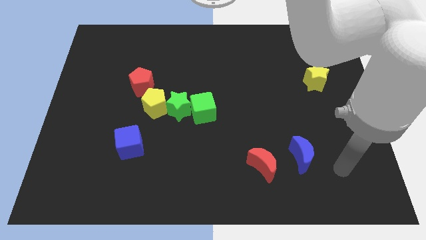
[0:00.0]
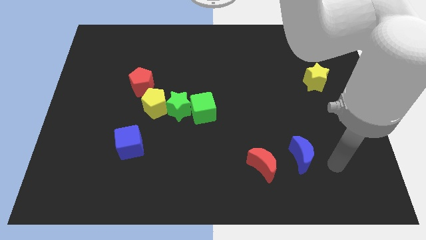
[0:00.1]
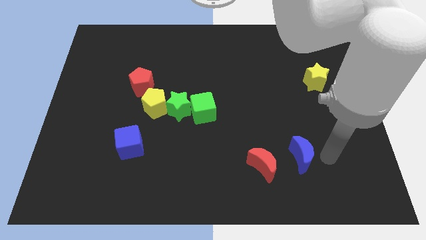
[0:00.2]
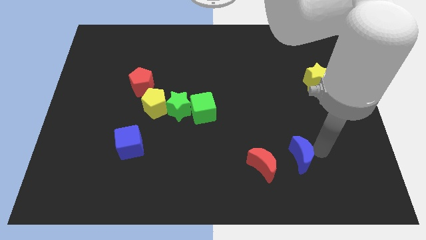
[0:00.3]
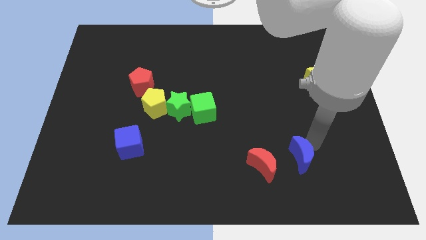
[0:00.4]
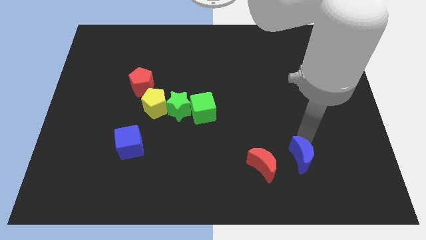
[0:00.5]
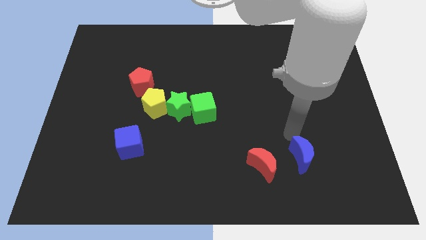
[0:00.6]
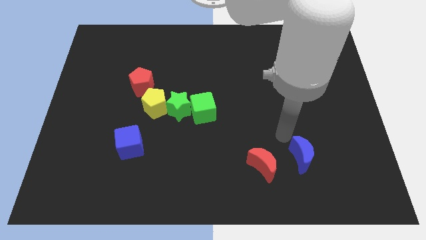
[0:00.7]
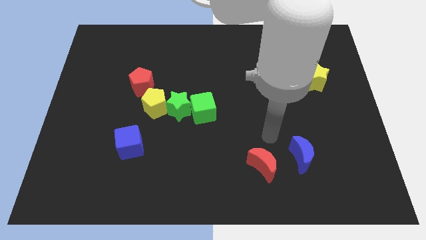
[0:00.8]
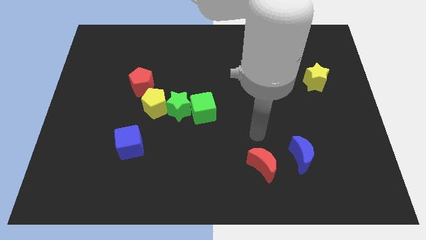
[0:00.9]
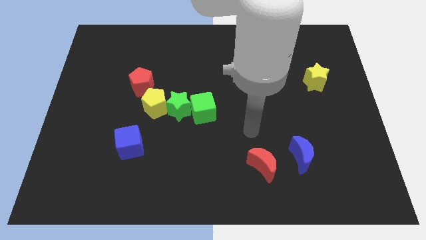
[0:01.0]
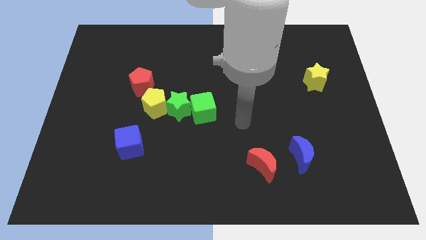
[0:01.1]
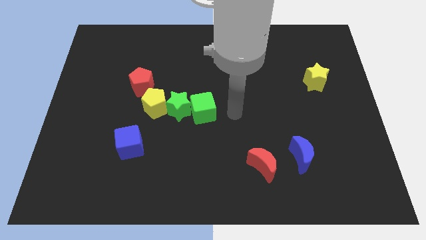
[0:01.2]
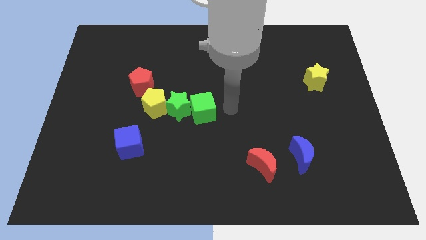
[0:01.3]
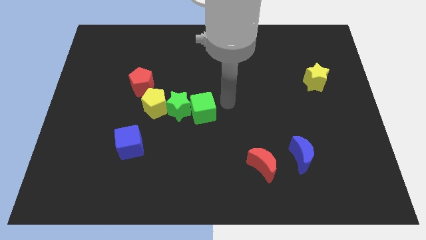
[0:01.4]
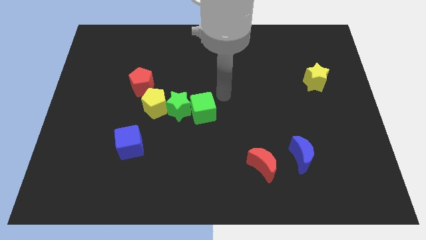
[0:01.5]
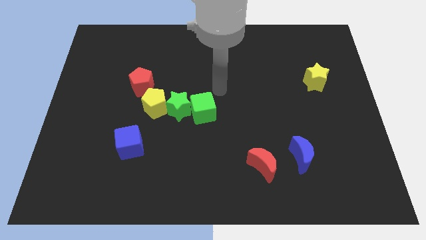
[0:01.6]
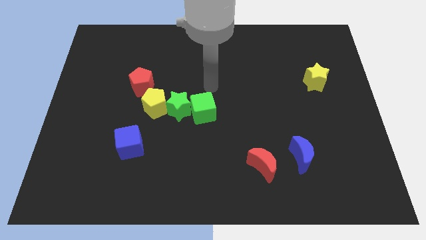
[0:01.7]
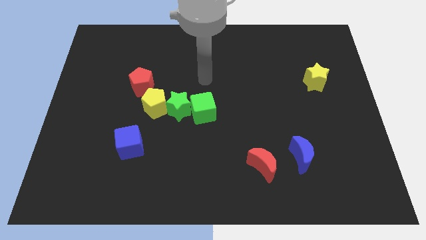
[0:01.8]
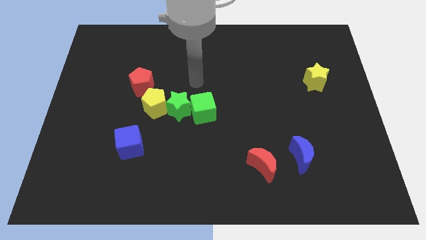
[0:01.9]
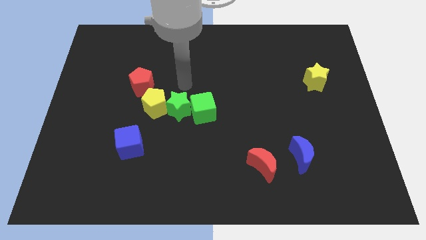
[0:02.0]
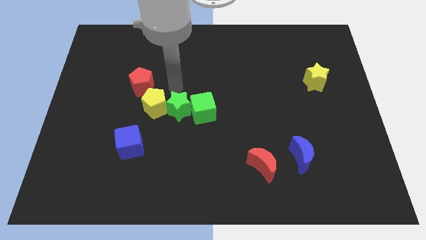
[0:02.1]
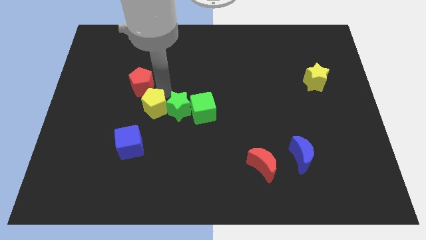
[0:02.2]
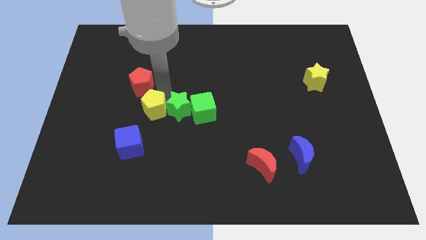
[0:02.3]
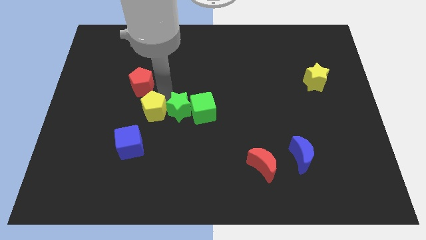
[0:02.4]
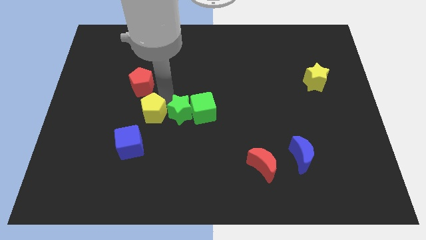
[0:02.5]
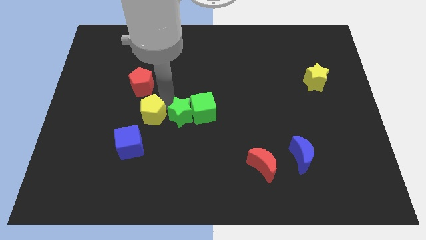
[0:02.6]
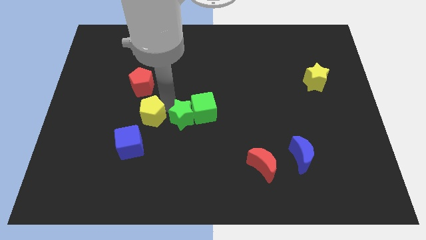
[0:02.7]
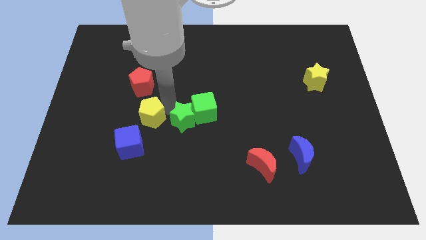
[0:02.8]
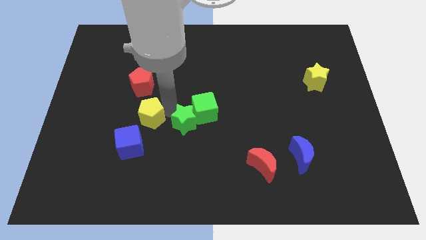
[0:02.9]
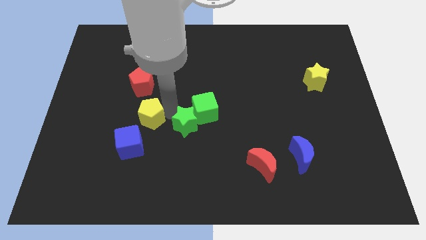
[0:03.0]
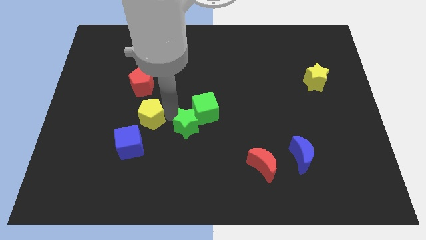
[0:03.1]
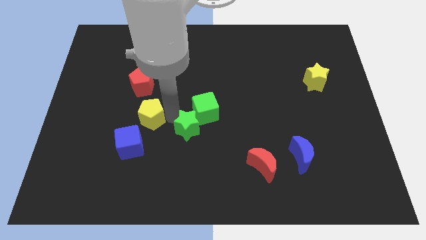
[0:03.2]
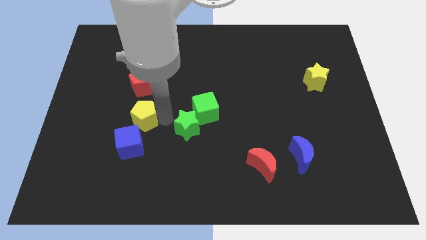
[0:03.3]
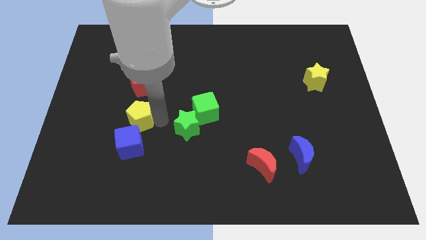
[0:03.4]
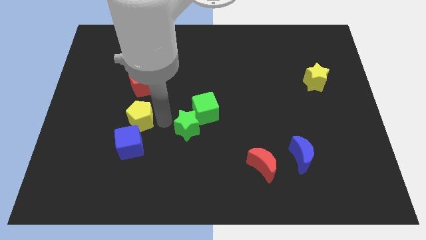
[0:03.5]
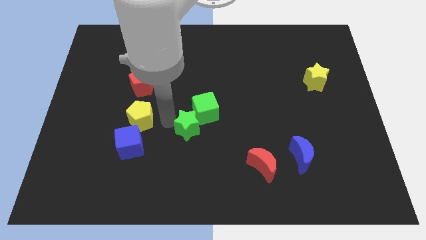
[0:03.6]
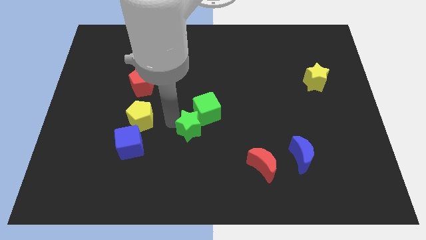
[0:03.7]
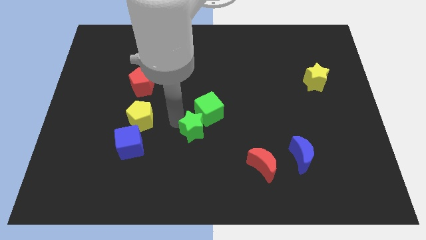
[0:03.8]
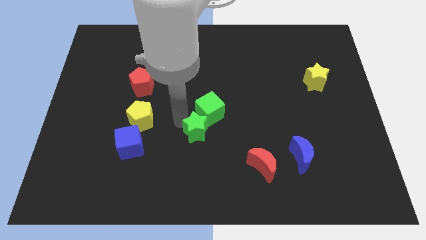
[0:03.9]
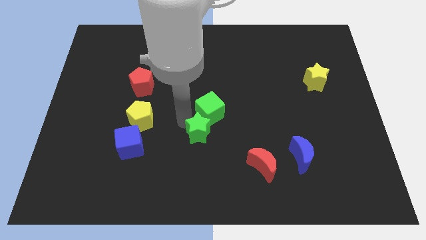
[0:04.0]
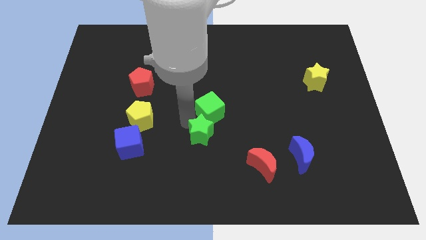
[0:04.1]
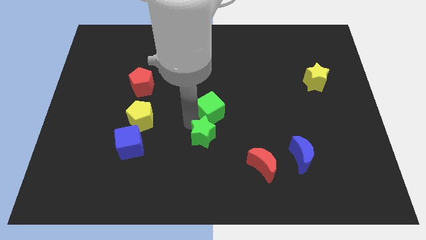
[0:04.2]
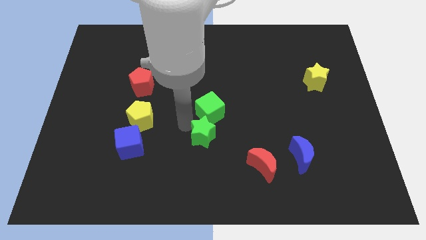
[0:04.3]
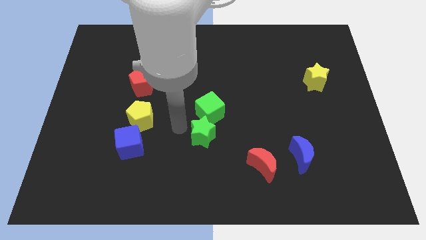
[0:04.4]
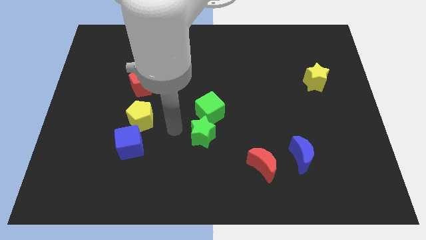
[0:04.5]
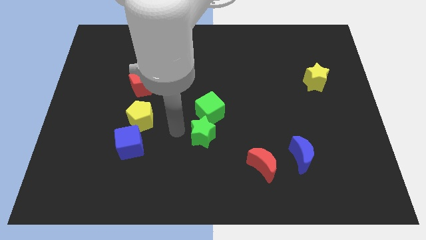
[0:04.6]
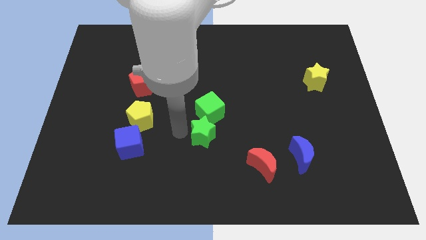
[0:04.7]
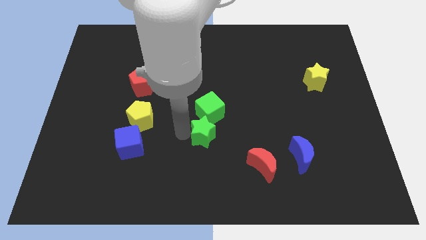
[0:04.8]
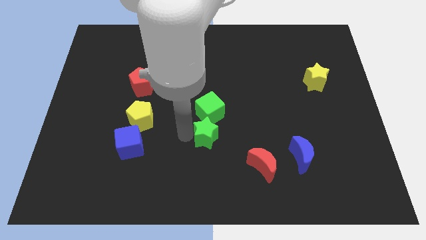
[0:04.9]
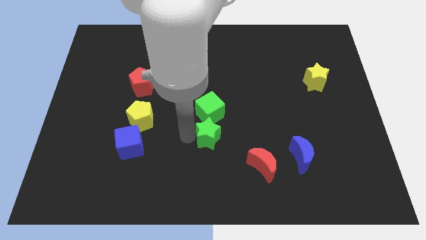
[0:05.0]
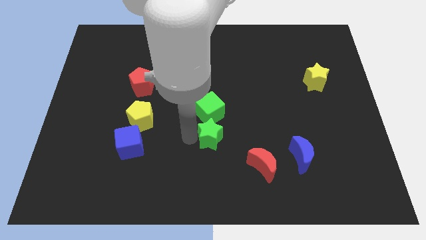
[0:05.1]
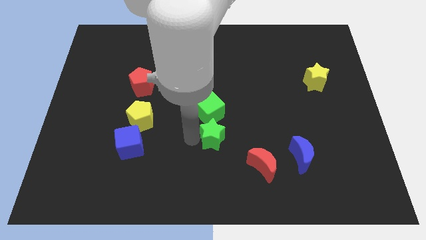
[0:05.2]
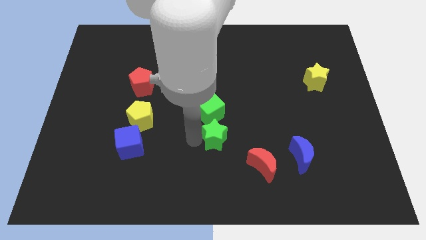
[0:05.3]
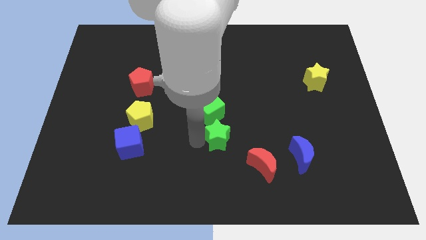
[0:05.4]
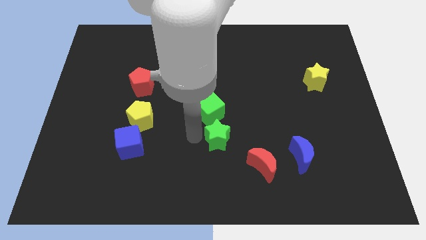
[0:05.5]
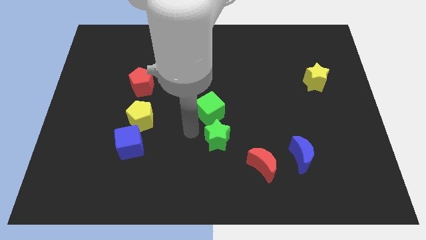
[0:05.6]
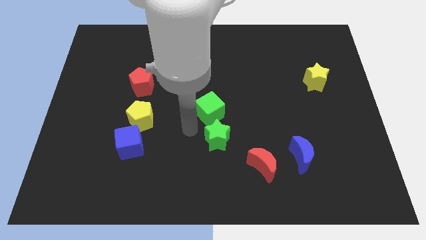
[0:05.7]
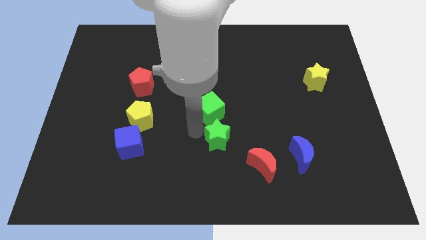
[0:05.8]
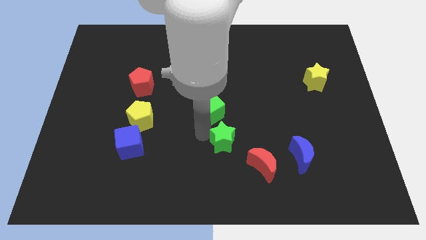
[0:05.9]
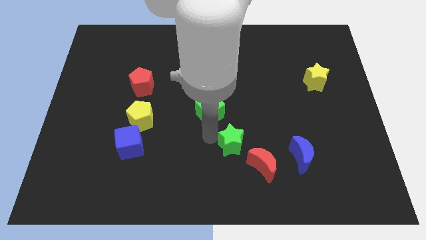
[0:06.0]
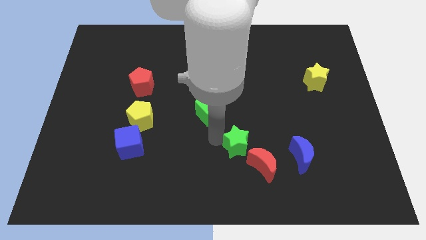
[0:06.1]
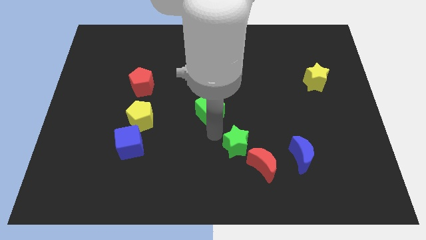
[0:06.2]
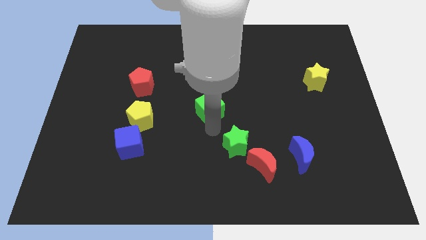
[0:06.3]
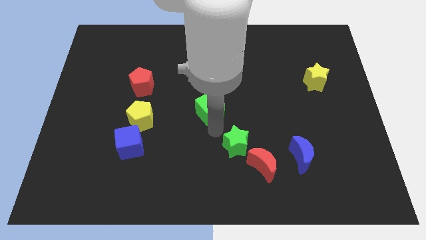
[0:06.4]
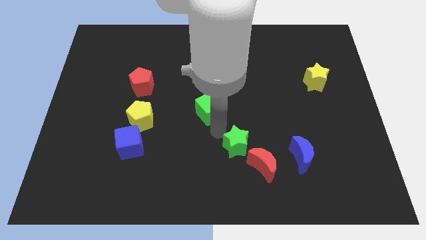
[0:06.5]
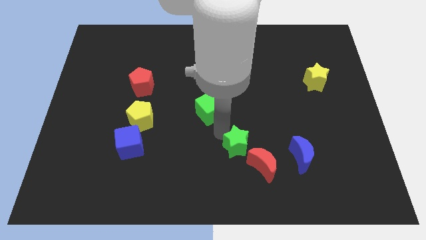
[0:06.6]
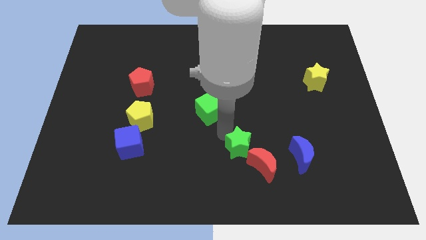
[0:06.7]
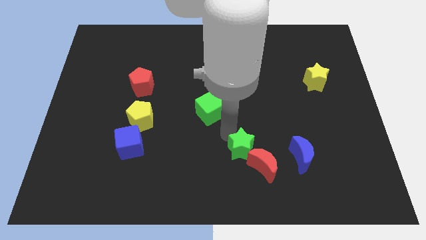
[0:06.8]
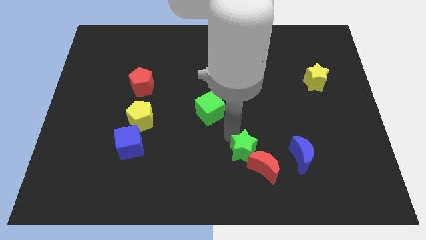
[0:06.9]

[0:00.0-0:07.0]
put the green star close to the red moon

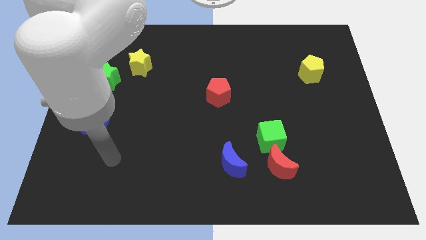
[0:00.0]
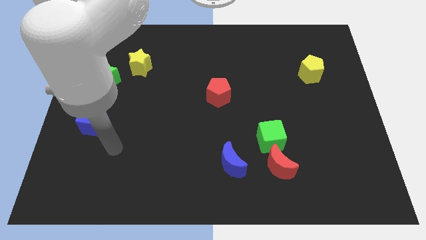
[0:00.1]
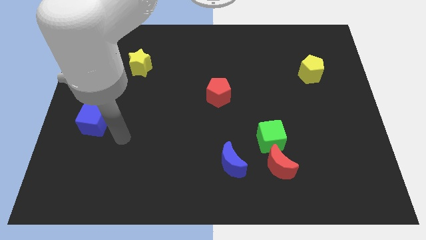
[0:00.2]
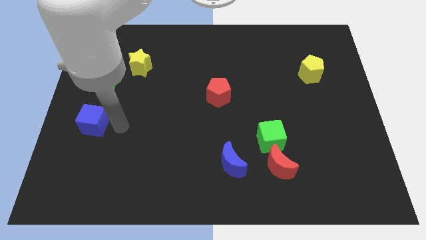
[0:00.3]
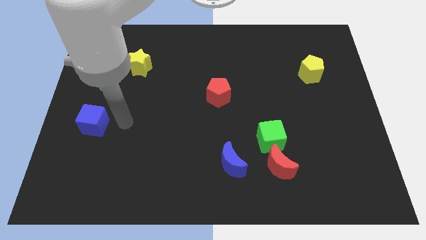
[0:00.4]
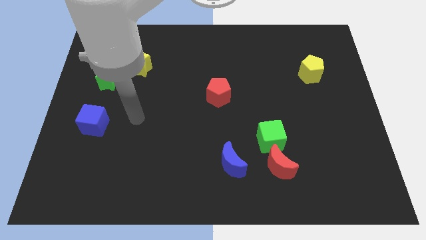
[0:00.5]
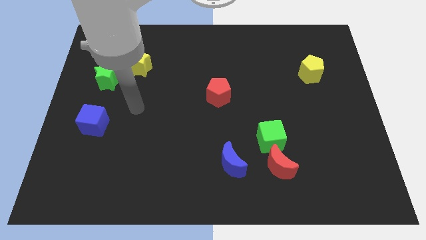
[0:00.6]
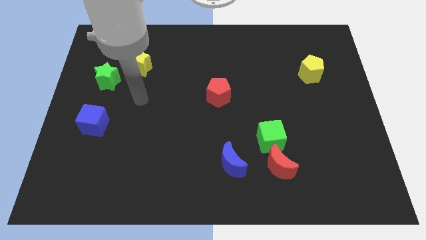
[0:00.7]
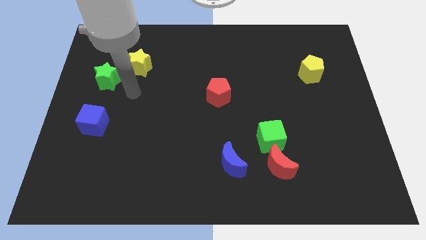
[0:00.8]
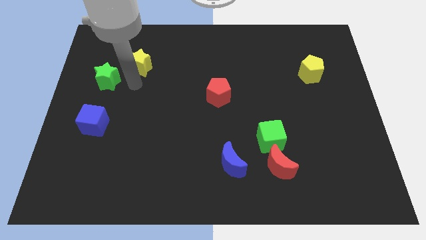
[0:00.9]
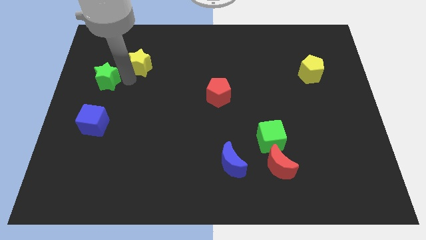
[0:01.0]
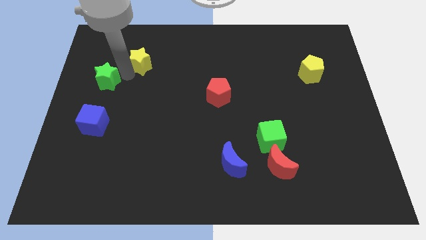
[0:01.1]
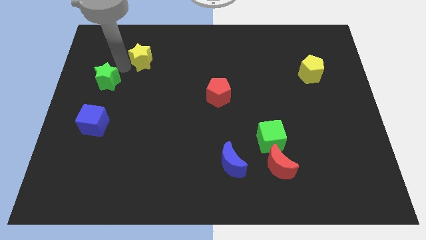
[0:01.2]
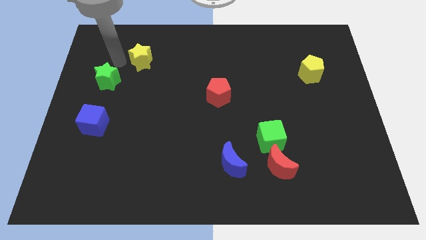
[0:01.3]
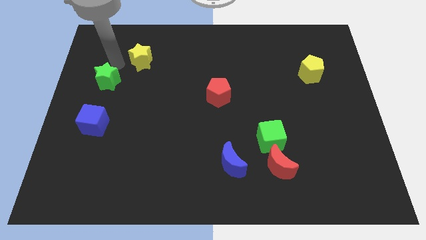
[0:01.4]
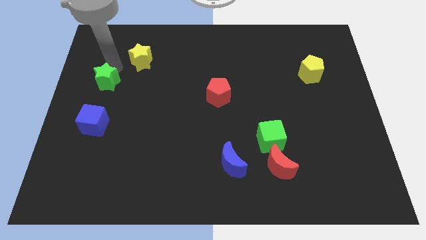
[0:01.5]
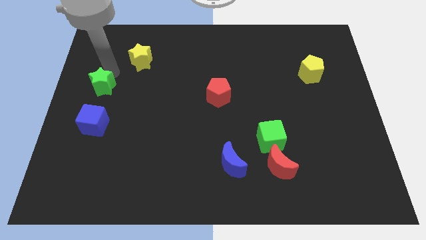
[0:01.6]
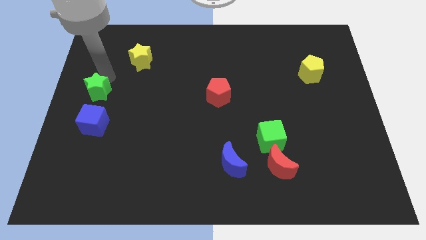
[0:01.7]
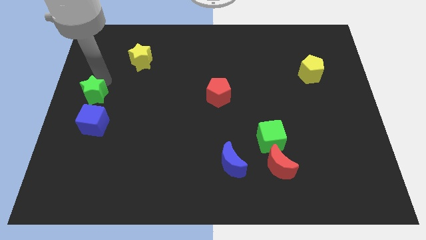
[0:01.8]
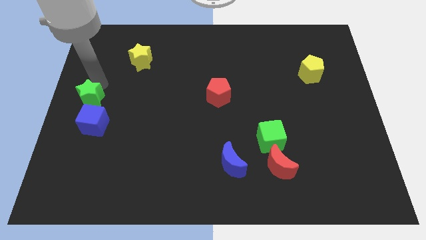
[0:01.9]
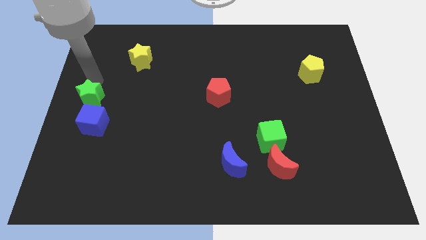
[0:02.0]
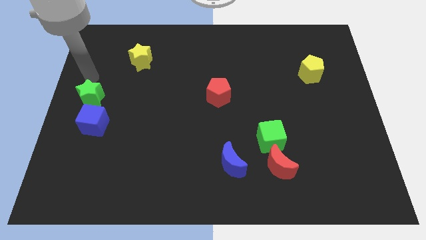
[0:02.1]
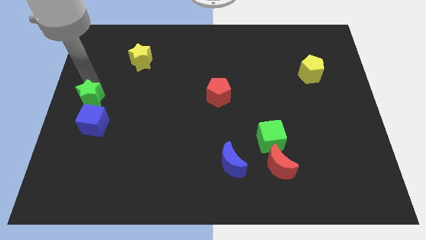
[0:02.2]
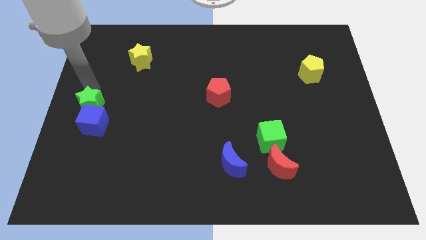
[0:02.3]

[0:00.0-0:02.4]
push the green star towards the blue cube
